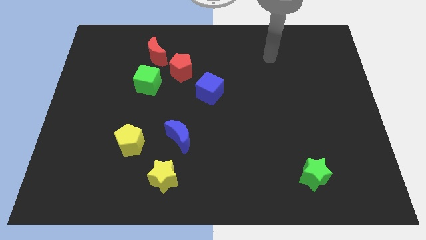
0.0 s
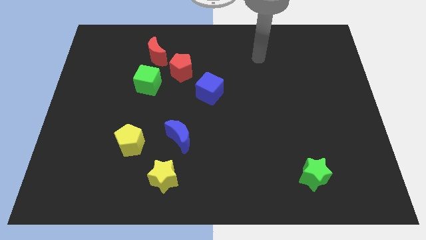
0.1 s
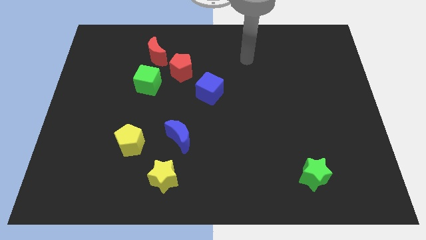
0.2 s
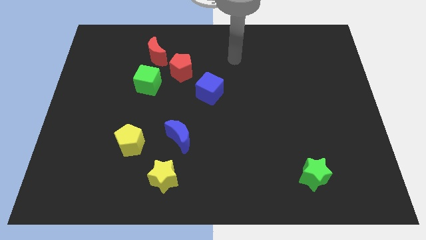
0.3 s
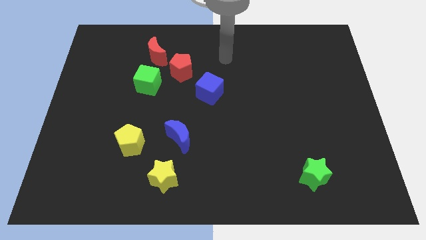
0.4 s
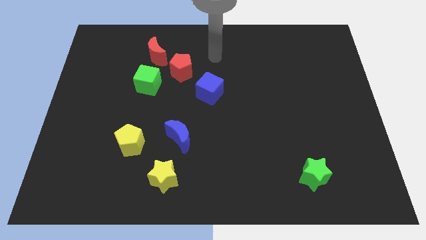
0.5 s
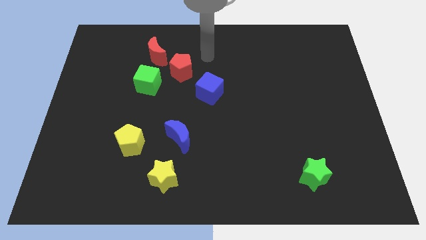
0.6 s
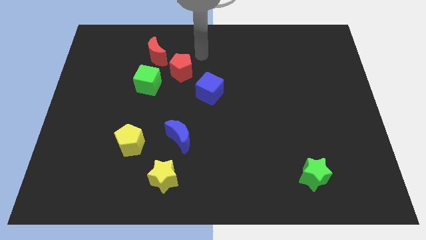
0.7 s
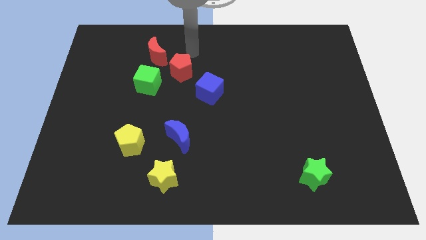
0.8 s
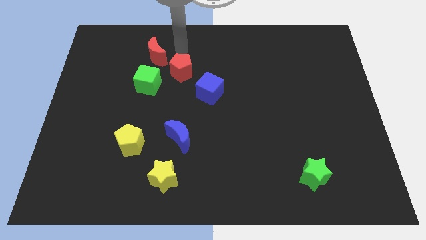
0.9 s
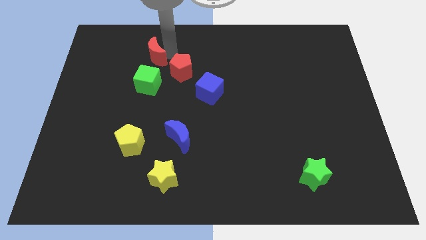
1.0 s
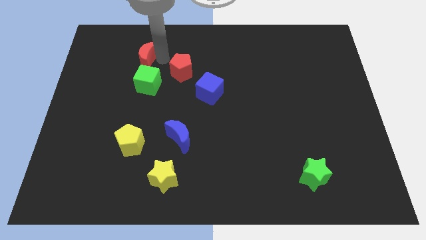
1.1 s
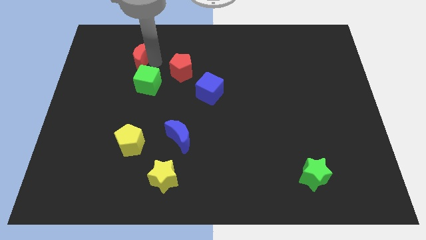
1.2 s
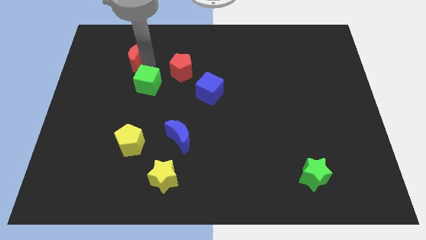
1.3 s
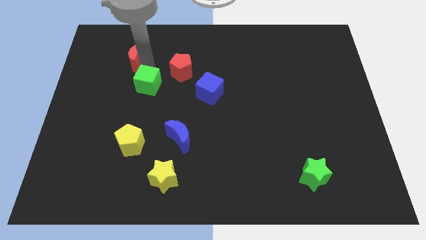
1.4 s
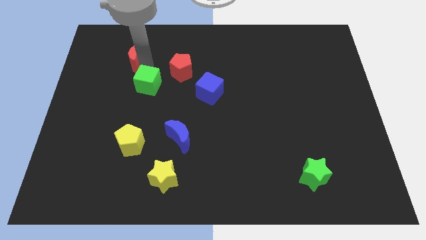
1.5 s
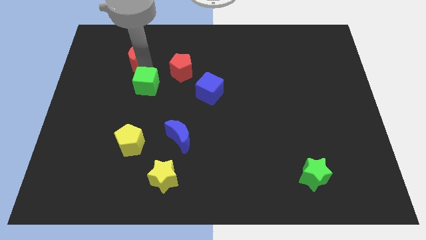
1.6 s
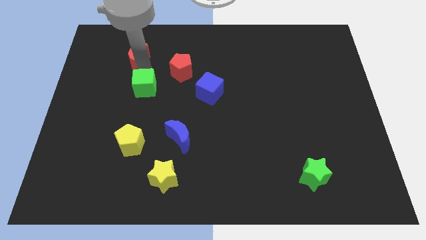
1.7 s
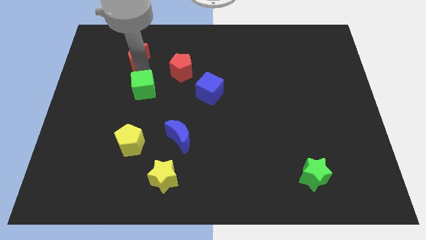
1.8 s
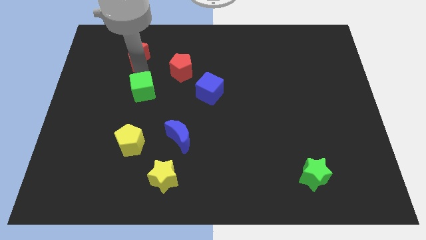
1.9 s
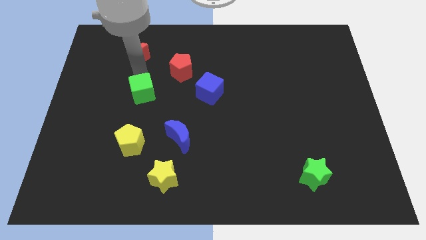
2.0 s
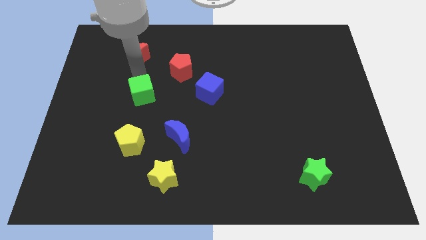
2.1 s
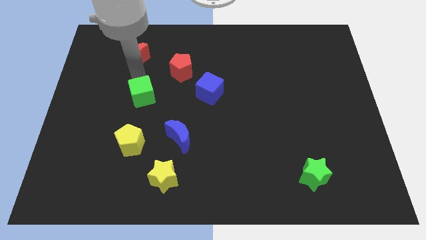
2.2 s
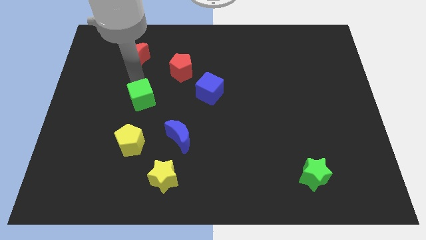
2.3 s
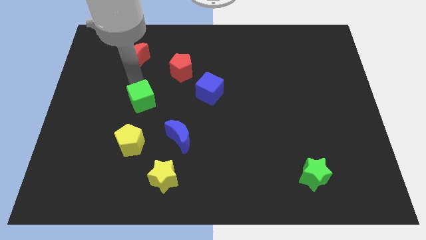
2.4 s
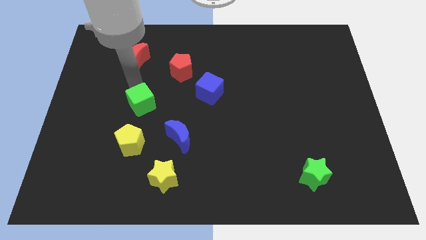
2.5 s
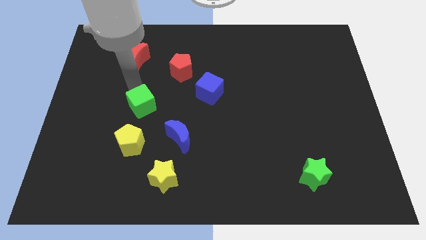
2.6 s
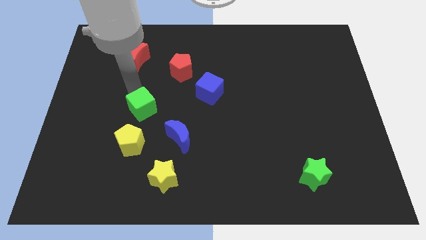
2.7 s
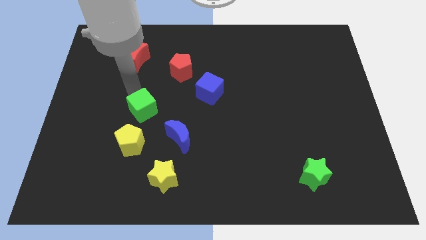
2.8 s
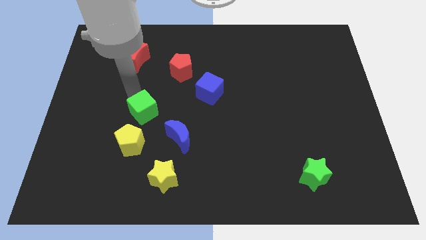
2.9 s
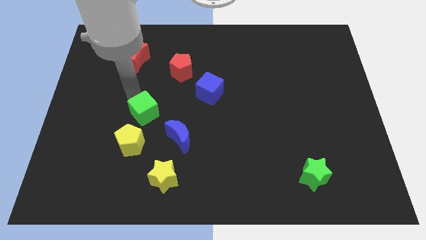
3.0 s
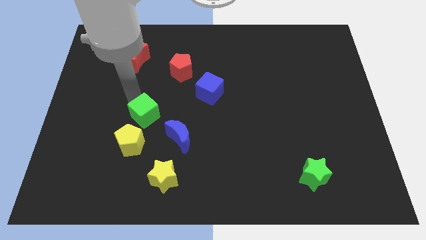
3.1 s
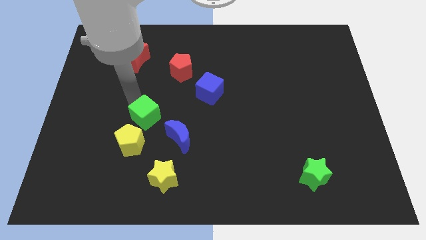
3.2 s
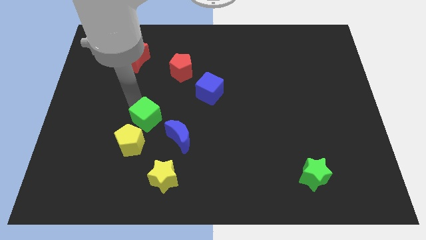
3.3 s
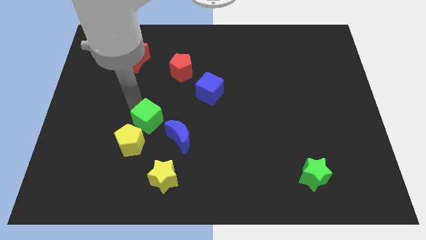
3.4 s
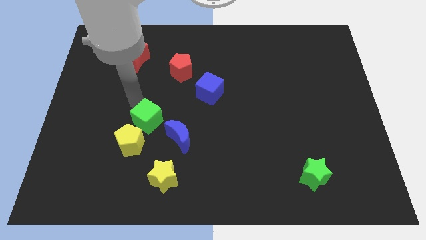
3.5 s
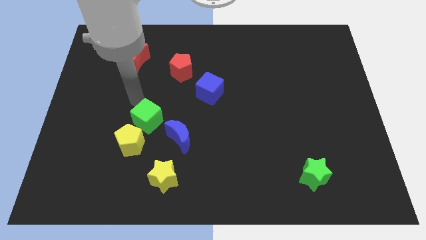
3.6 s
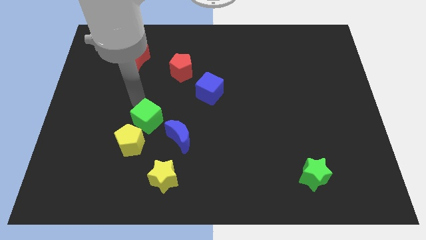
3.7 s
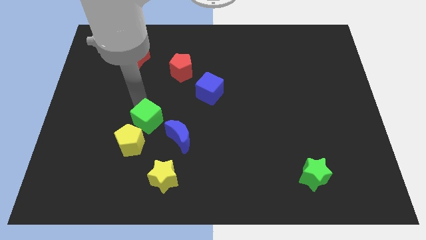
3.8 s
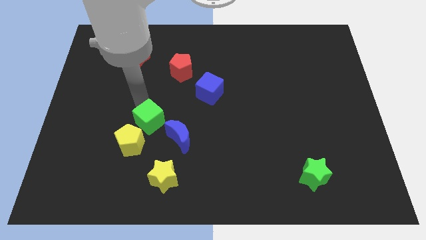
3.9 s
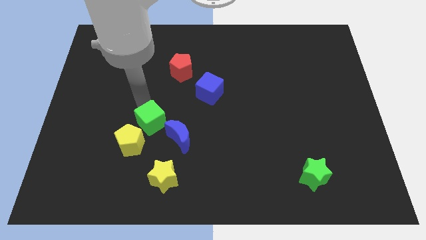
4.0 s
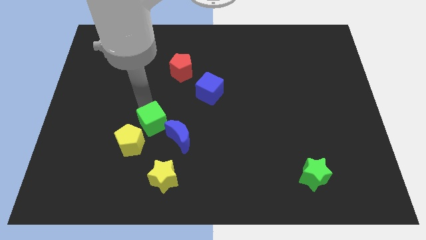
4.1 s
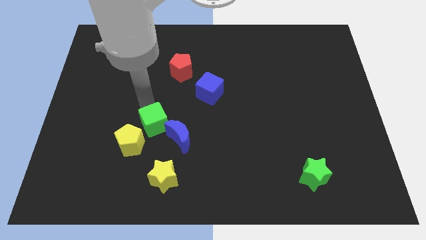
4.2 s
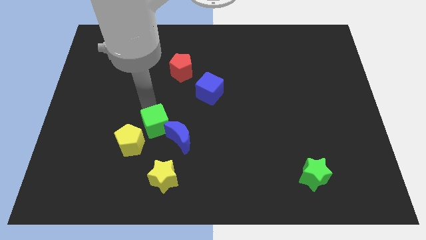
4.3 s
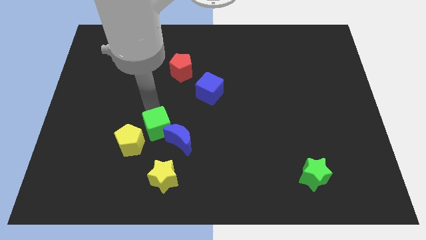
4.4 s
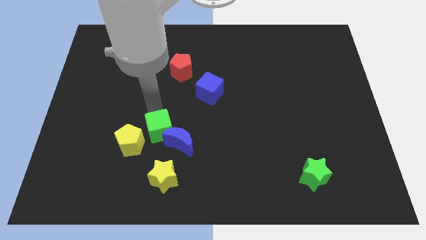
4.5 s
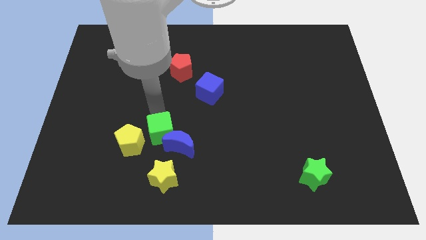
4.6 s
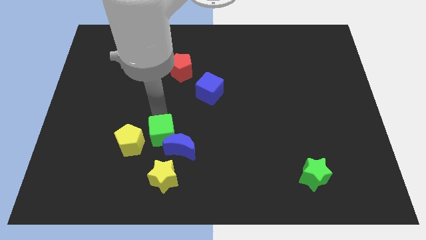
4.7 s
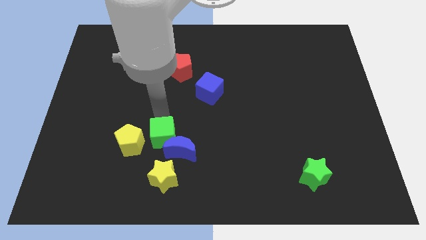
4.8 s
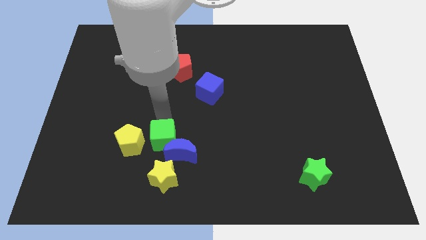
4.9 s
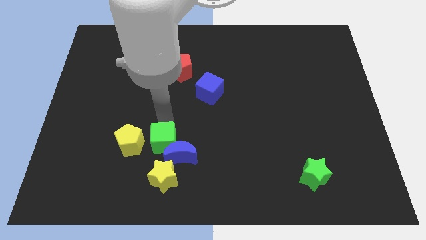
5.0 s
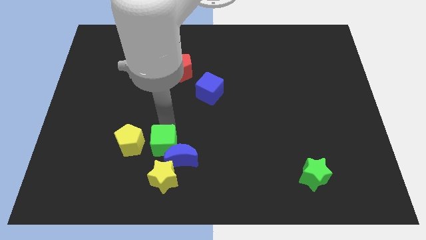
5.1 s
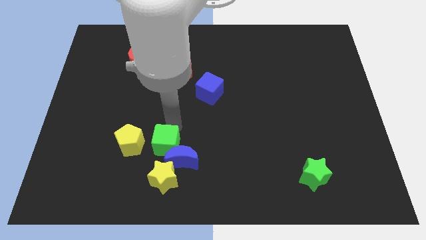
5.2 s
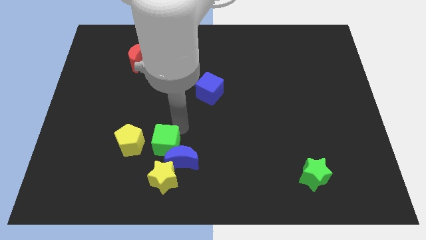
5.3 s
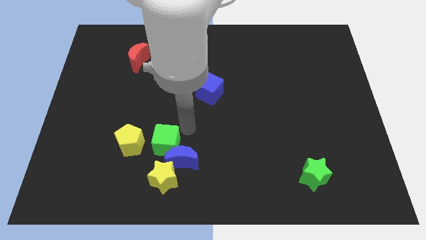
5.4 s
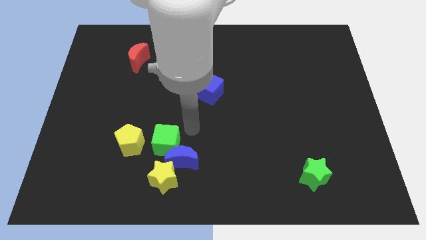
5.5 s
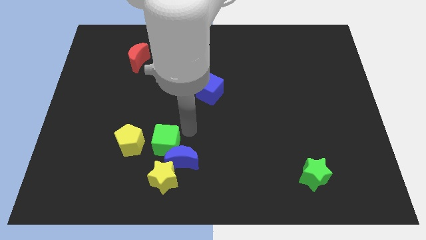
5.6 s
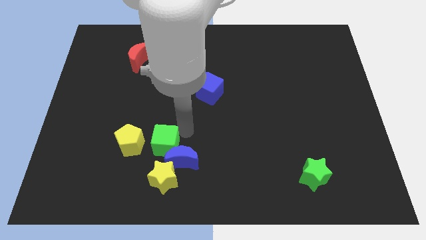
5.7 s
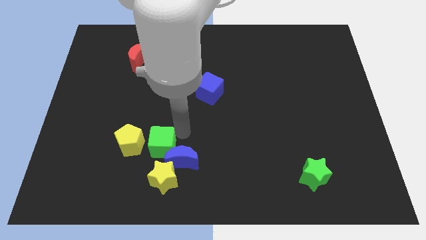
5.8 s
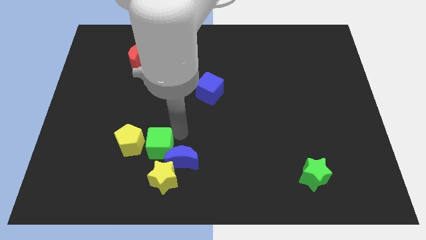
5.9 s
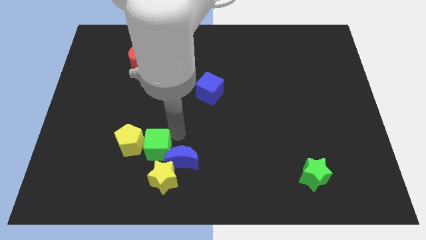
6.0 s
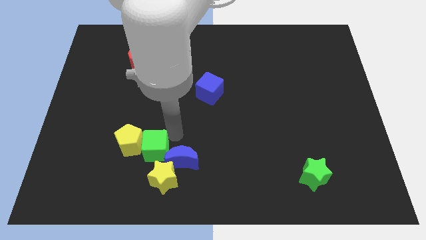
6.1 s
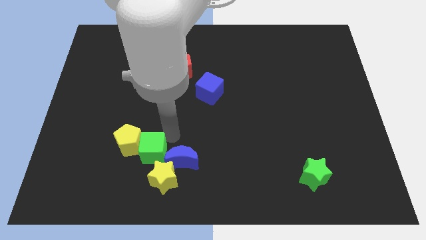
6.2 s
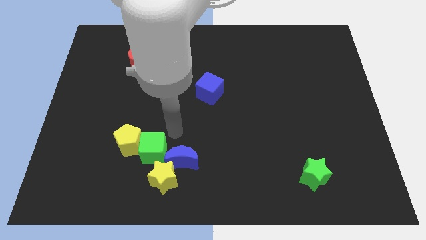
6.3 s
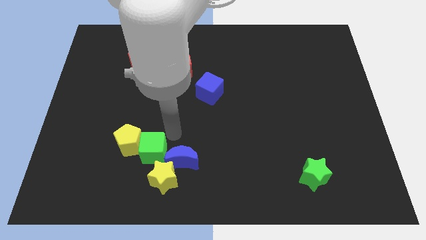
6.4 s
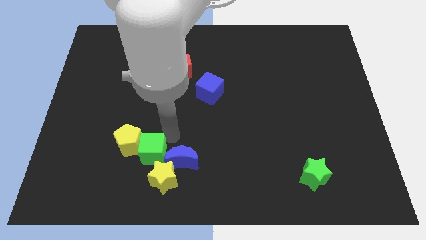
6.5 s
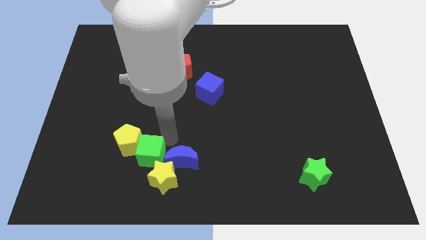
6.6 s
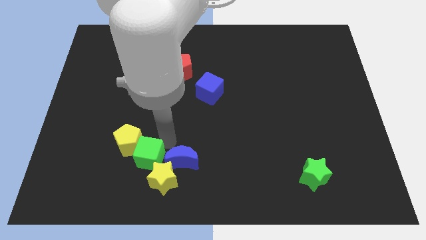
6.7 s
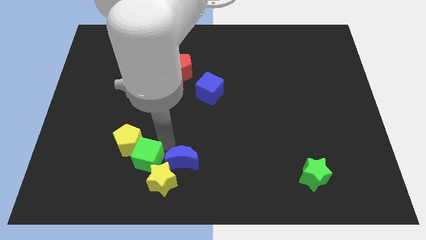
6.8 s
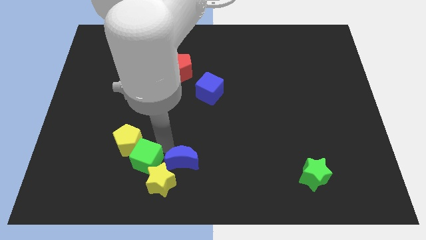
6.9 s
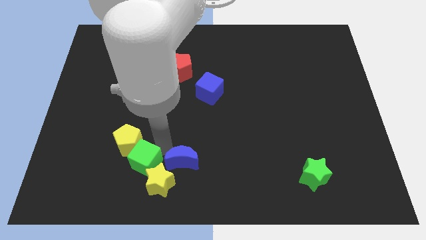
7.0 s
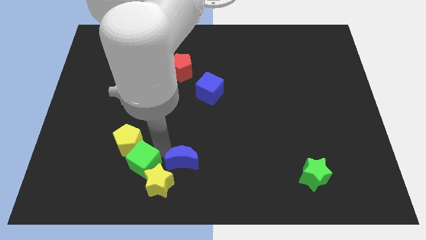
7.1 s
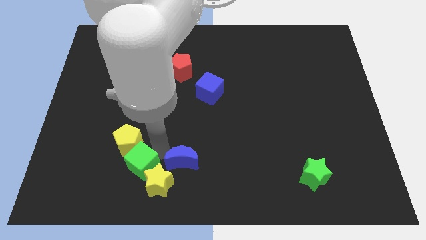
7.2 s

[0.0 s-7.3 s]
slide the green cube left of the yellow star
